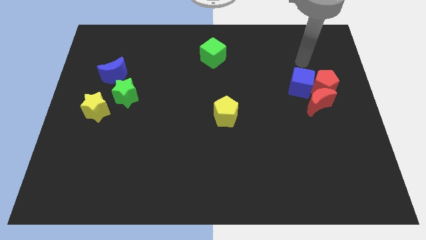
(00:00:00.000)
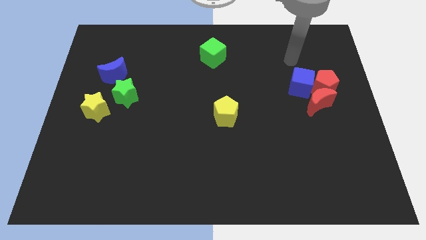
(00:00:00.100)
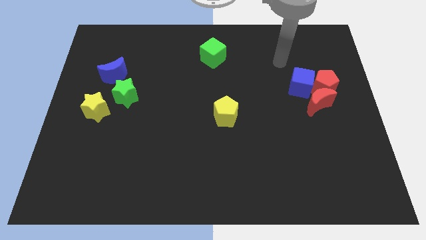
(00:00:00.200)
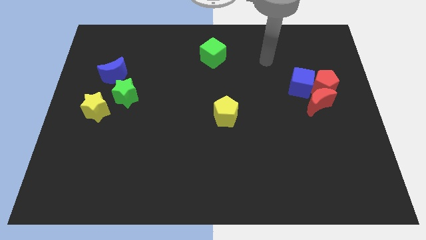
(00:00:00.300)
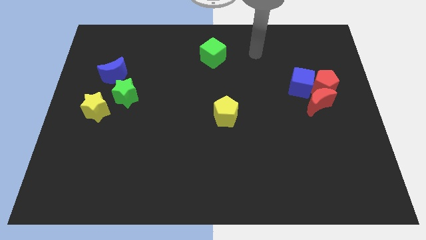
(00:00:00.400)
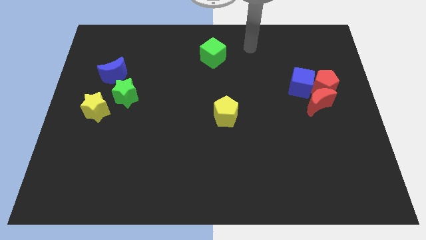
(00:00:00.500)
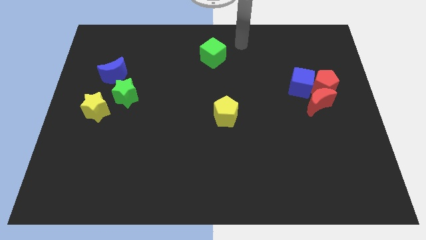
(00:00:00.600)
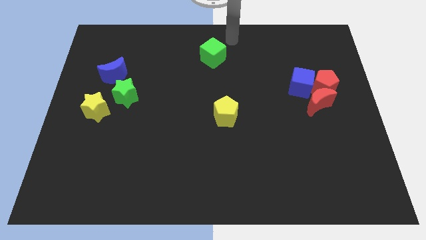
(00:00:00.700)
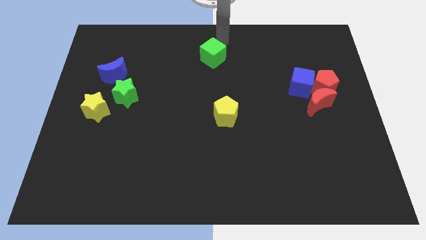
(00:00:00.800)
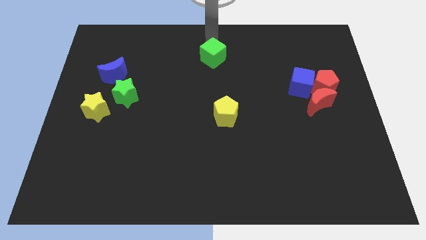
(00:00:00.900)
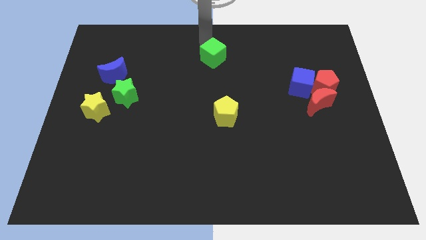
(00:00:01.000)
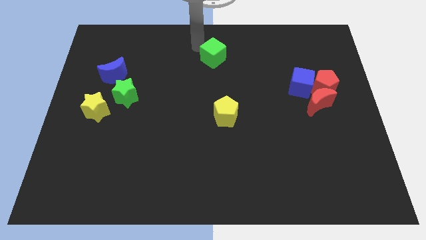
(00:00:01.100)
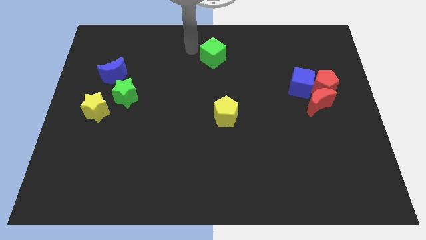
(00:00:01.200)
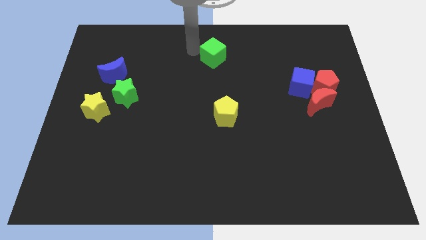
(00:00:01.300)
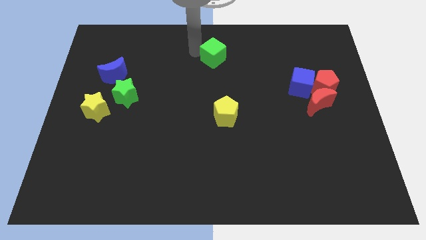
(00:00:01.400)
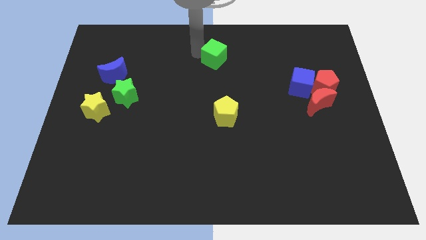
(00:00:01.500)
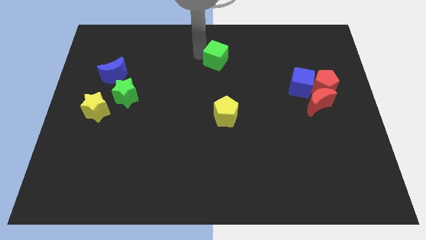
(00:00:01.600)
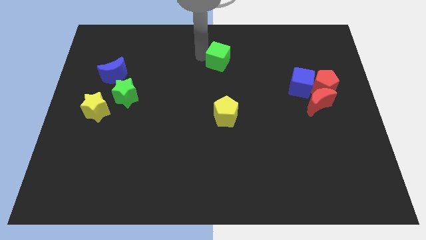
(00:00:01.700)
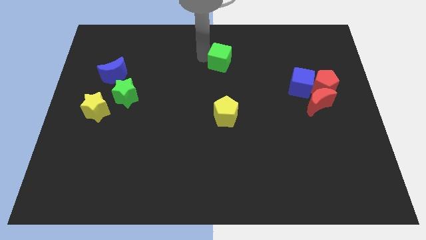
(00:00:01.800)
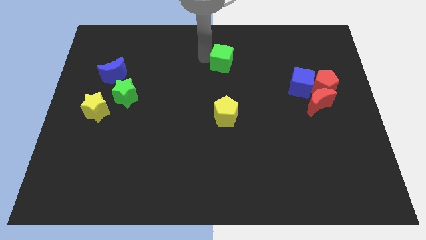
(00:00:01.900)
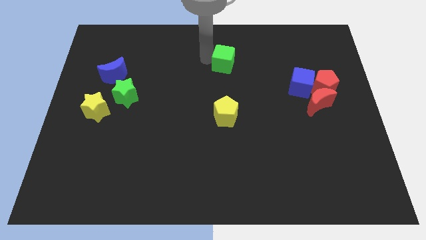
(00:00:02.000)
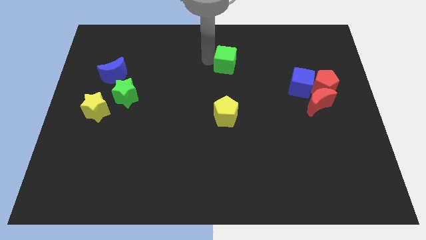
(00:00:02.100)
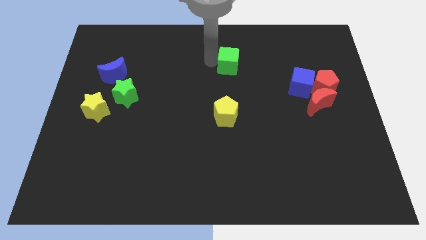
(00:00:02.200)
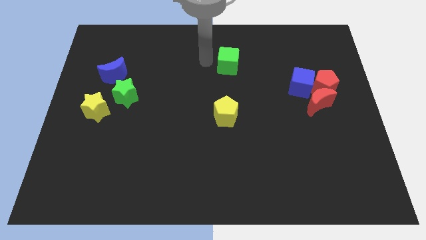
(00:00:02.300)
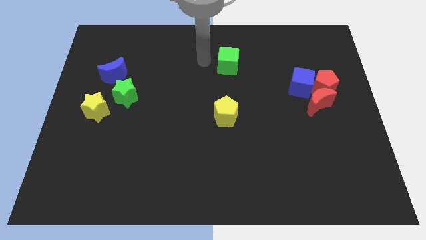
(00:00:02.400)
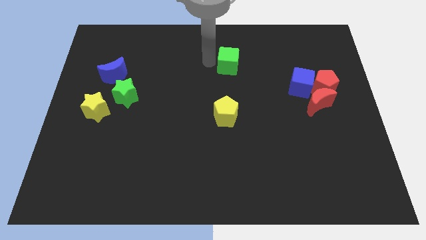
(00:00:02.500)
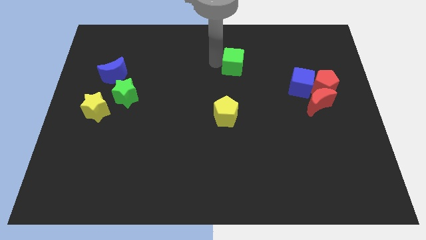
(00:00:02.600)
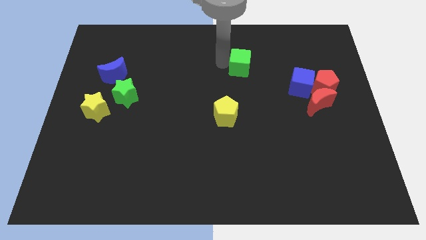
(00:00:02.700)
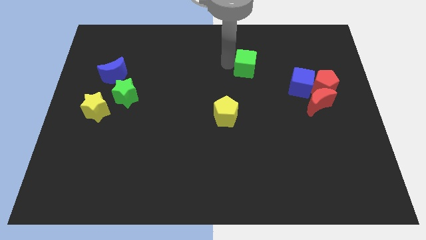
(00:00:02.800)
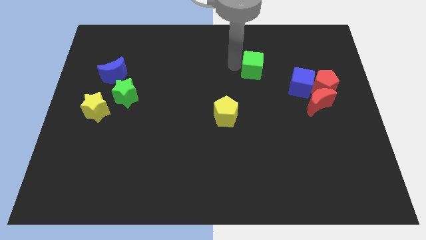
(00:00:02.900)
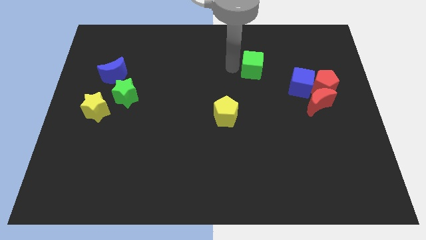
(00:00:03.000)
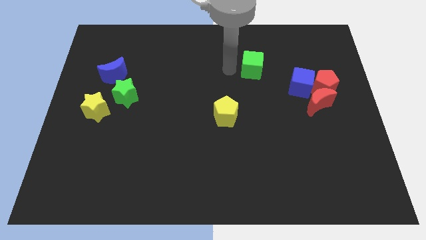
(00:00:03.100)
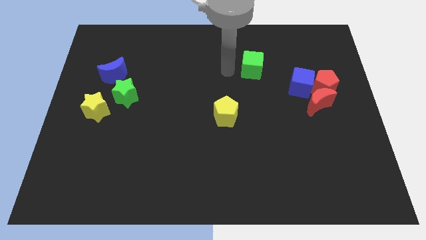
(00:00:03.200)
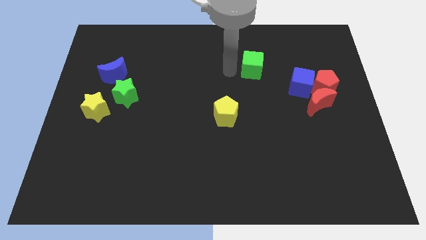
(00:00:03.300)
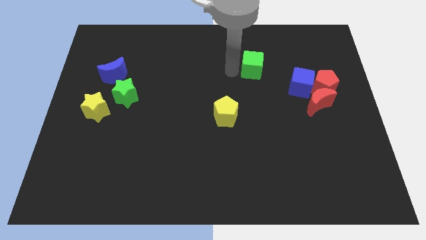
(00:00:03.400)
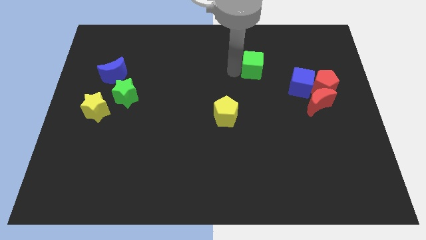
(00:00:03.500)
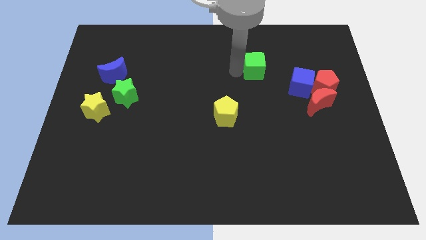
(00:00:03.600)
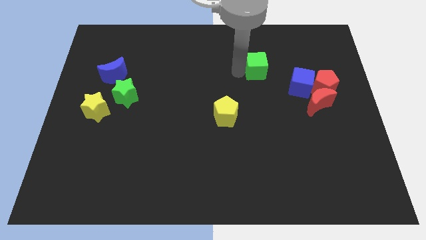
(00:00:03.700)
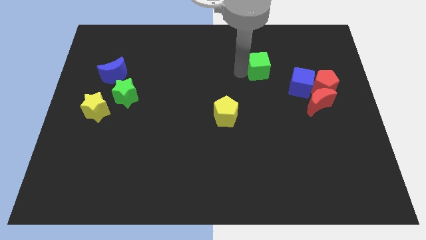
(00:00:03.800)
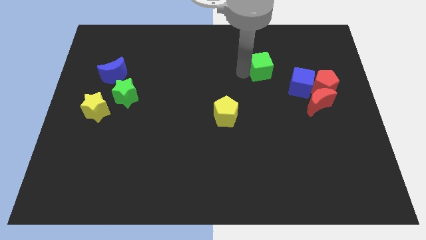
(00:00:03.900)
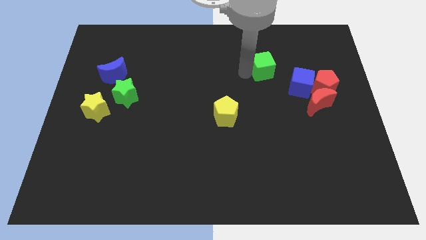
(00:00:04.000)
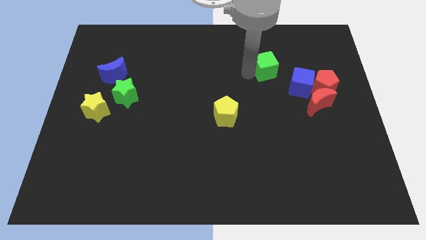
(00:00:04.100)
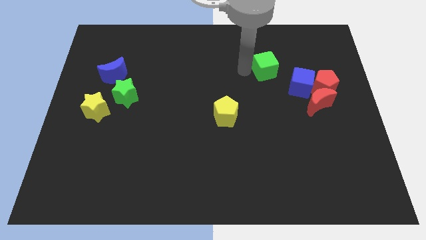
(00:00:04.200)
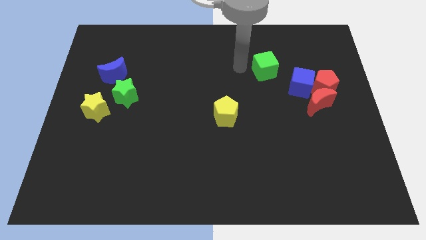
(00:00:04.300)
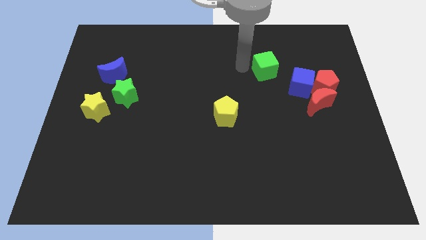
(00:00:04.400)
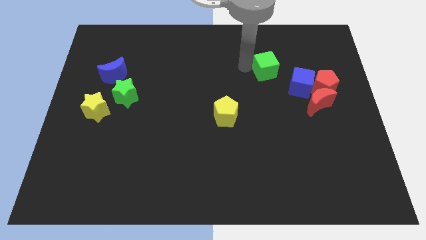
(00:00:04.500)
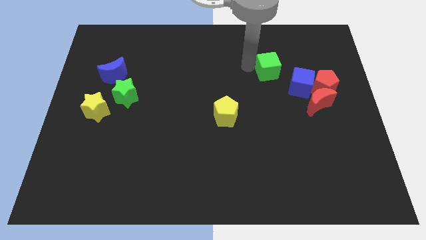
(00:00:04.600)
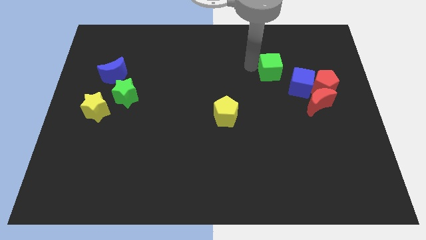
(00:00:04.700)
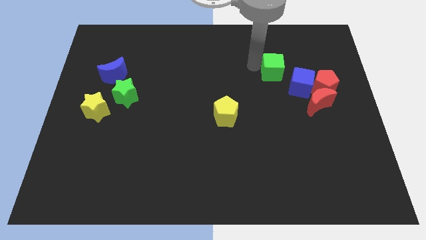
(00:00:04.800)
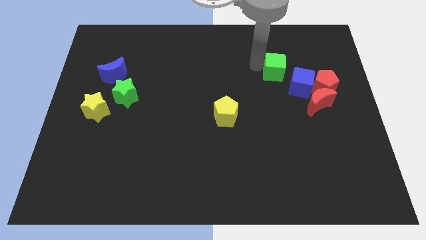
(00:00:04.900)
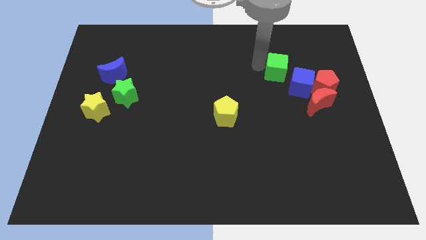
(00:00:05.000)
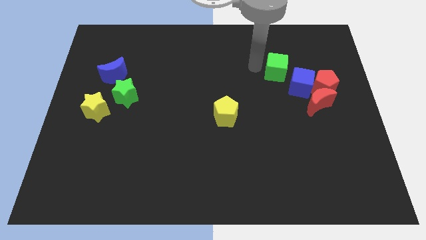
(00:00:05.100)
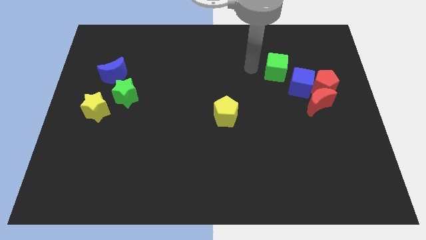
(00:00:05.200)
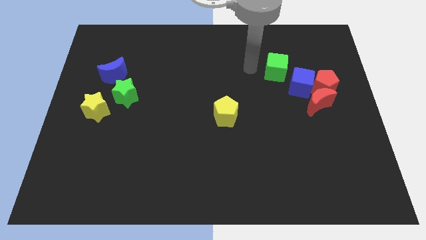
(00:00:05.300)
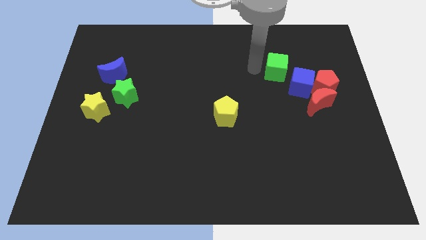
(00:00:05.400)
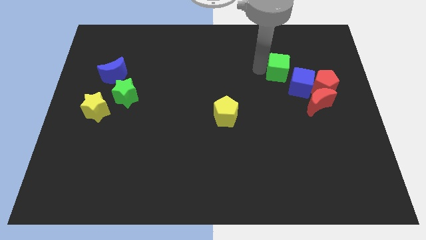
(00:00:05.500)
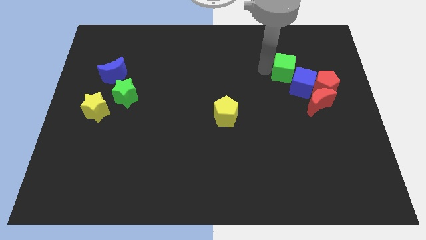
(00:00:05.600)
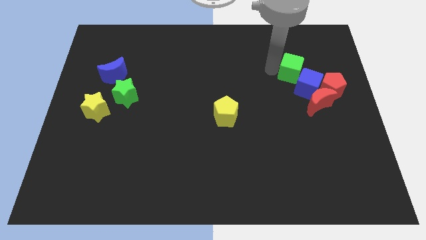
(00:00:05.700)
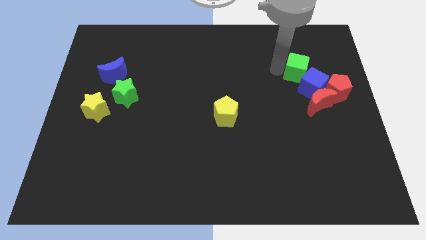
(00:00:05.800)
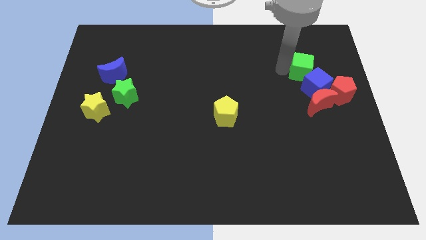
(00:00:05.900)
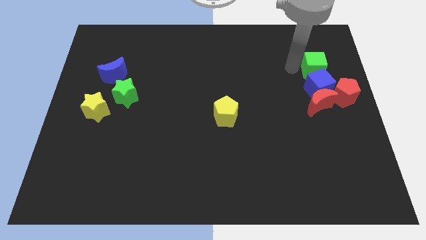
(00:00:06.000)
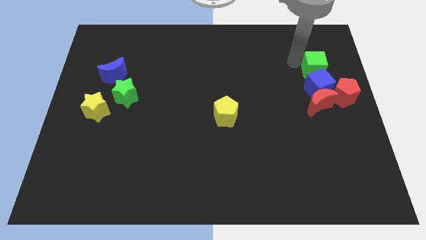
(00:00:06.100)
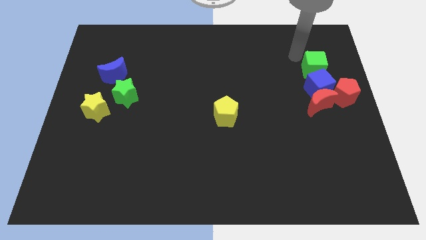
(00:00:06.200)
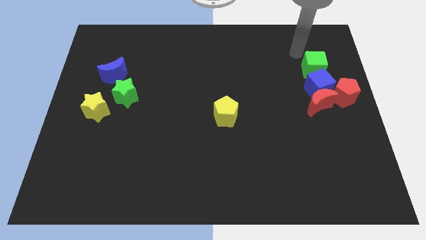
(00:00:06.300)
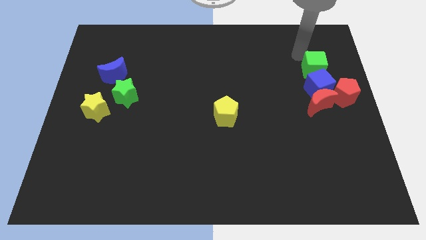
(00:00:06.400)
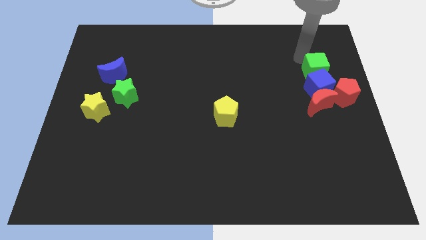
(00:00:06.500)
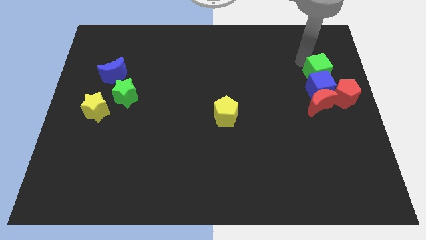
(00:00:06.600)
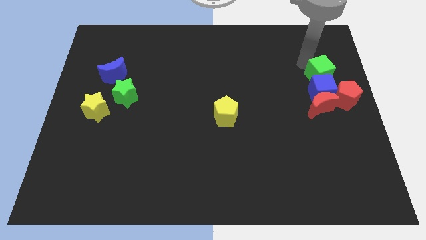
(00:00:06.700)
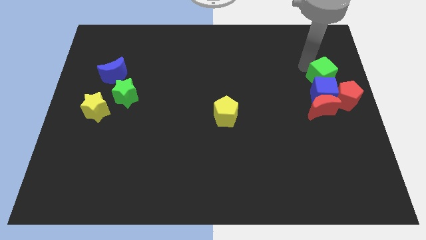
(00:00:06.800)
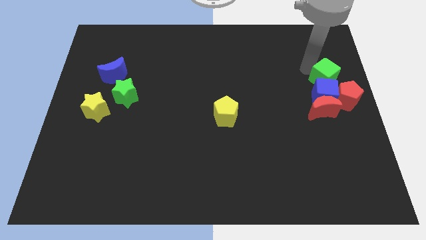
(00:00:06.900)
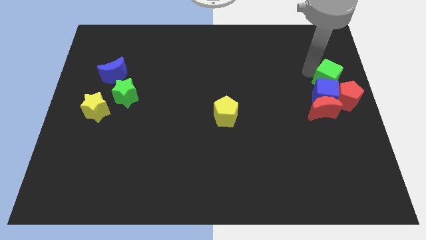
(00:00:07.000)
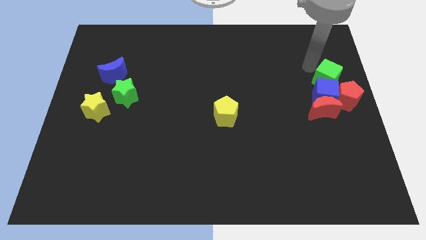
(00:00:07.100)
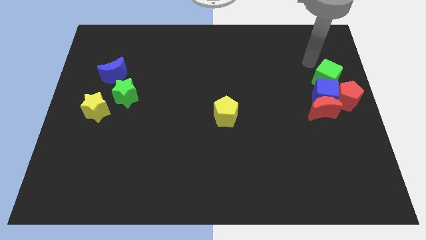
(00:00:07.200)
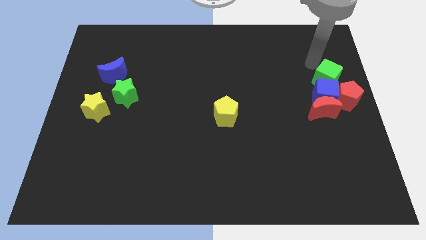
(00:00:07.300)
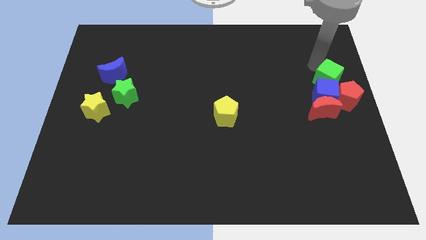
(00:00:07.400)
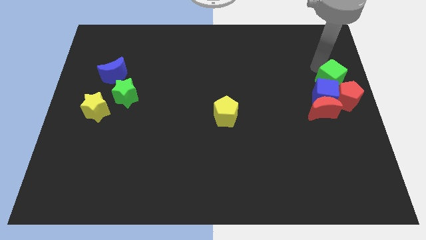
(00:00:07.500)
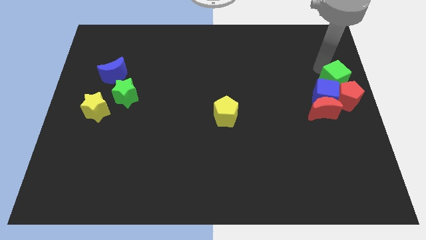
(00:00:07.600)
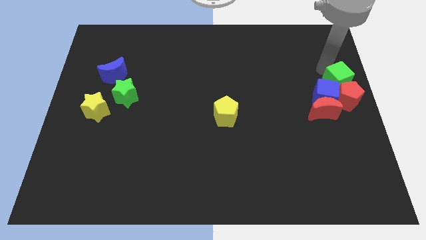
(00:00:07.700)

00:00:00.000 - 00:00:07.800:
put the green cube close to the red pentagon

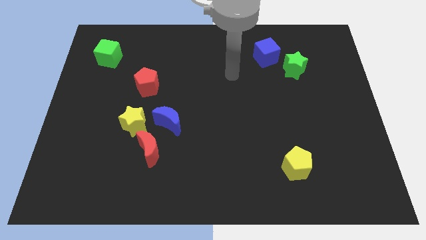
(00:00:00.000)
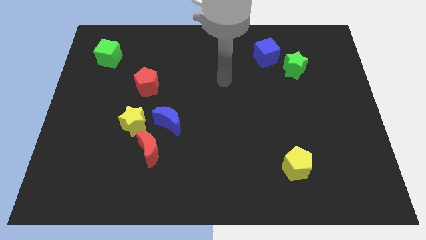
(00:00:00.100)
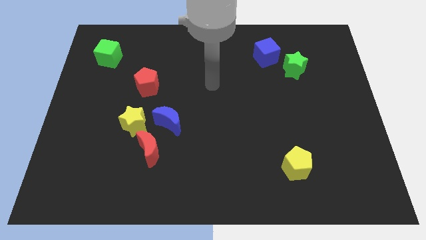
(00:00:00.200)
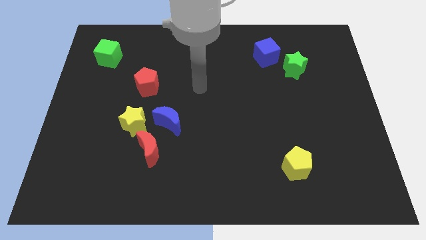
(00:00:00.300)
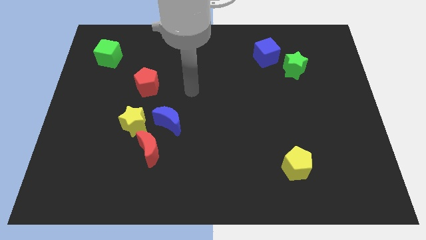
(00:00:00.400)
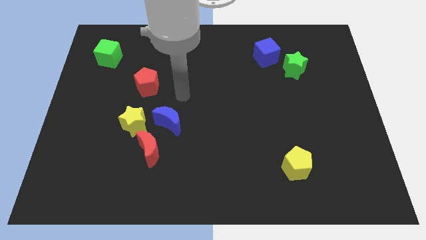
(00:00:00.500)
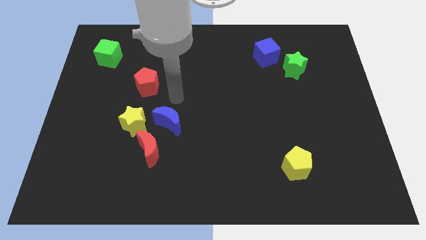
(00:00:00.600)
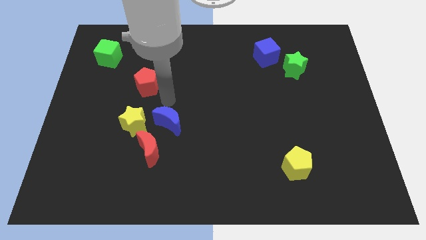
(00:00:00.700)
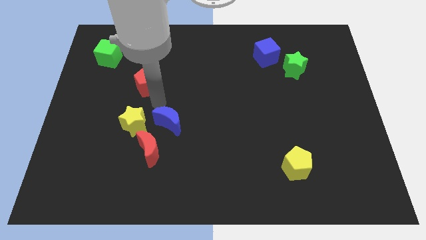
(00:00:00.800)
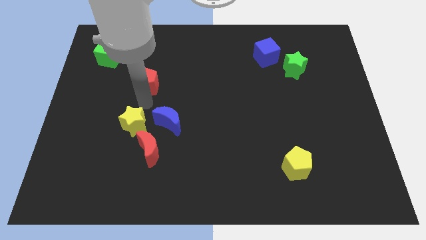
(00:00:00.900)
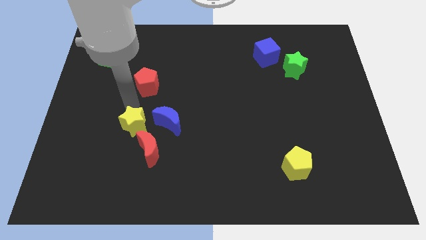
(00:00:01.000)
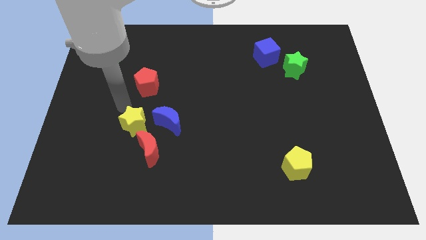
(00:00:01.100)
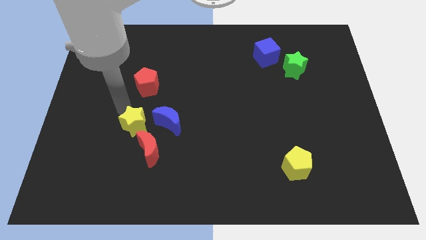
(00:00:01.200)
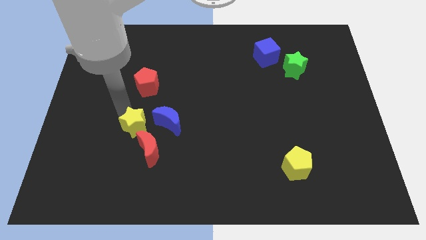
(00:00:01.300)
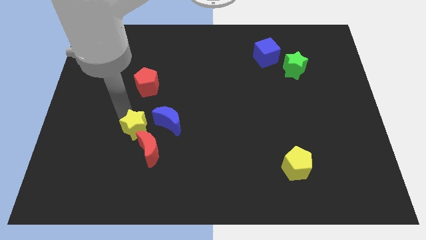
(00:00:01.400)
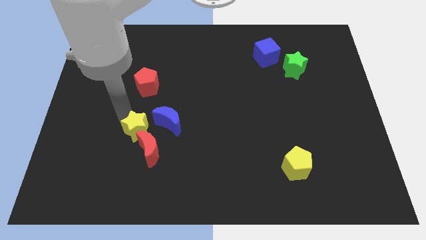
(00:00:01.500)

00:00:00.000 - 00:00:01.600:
push the yellow star to the red moon
